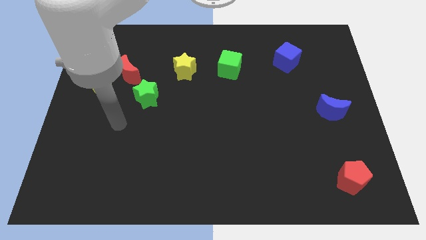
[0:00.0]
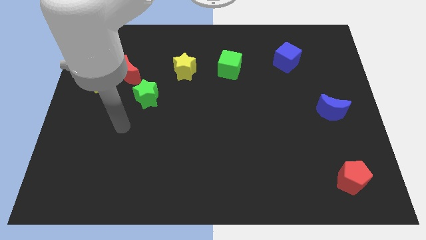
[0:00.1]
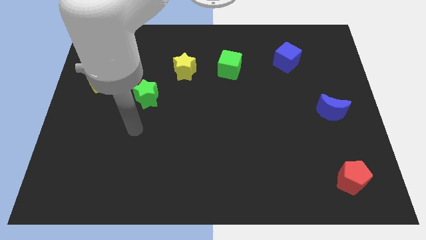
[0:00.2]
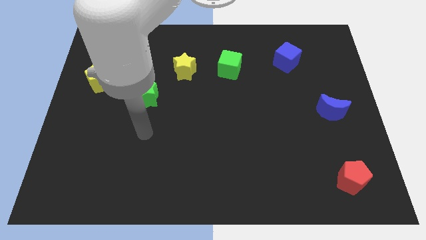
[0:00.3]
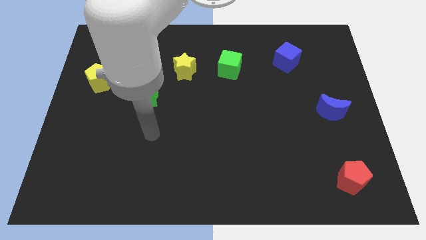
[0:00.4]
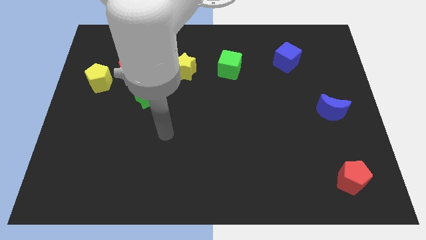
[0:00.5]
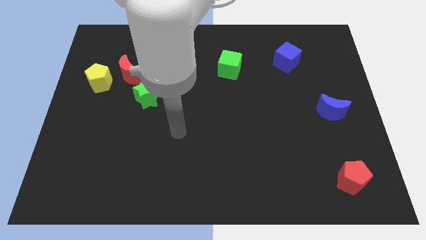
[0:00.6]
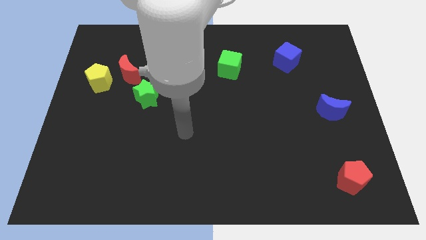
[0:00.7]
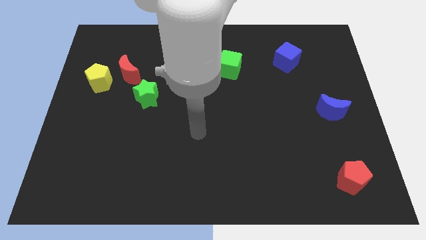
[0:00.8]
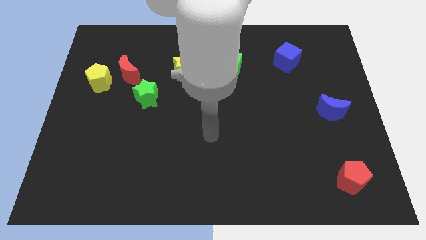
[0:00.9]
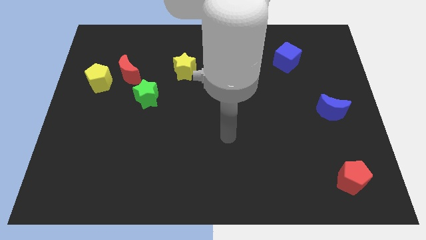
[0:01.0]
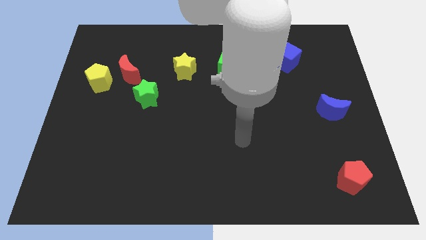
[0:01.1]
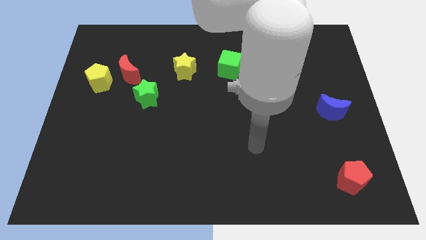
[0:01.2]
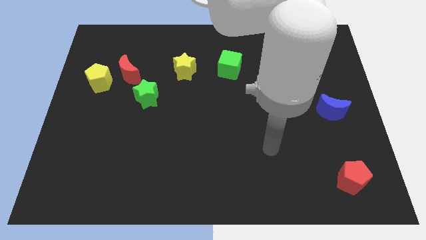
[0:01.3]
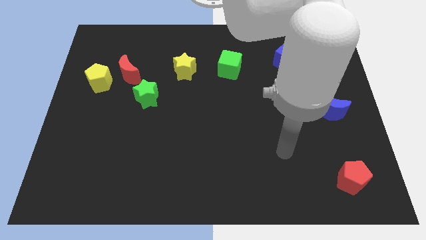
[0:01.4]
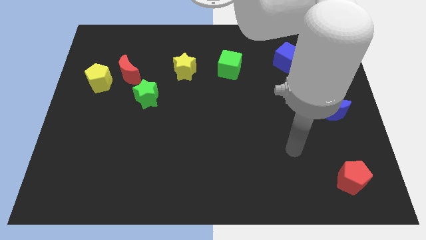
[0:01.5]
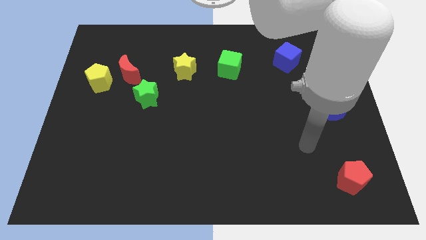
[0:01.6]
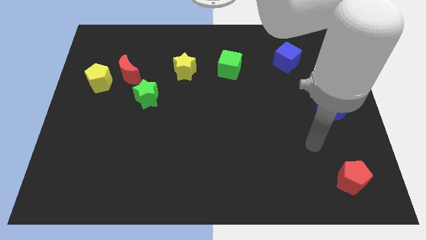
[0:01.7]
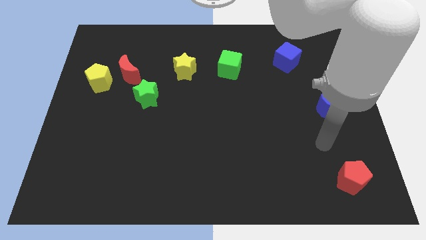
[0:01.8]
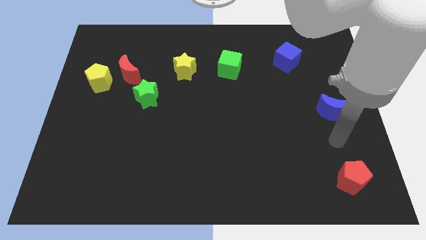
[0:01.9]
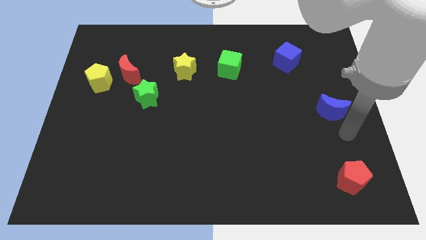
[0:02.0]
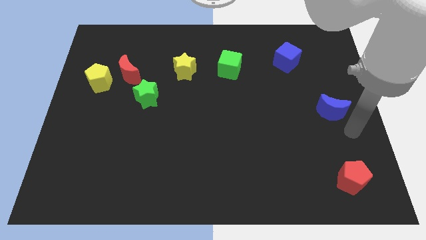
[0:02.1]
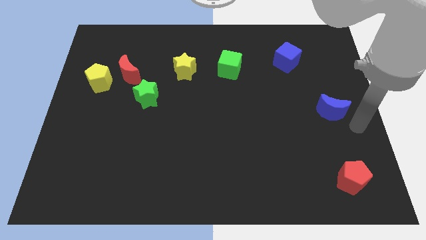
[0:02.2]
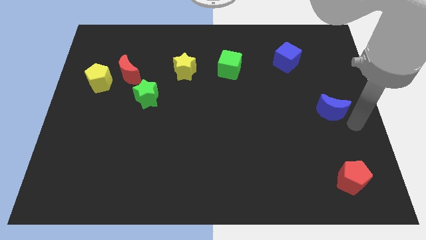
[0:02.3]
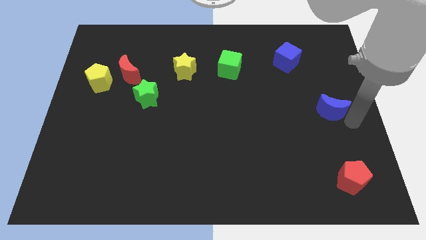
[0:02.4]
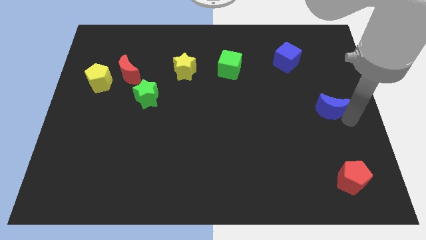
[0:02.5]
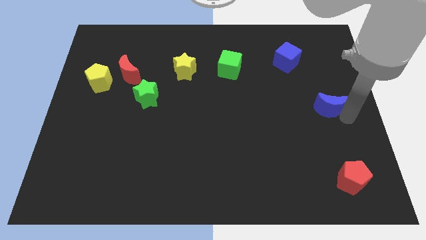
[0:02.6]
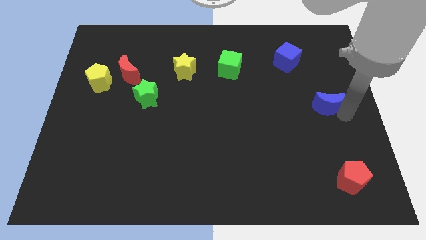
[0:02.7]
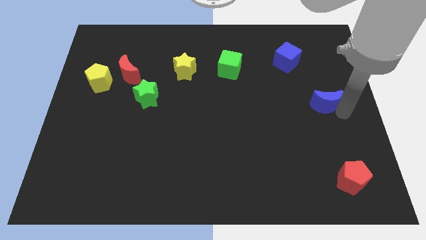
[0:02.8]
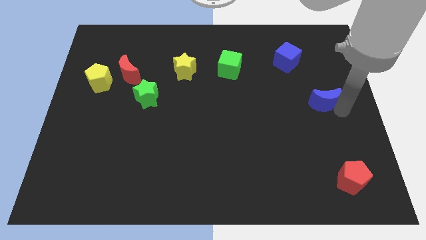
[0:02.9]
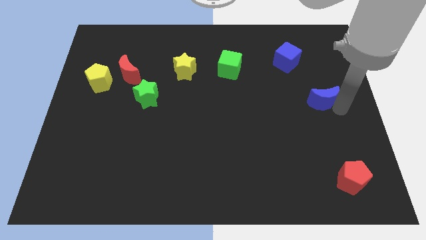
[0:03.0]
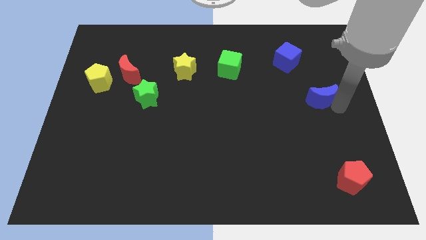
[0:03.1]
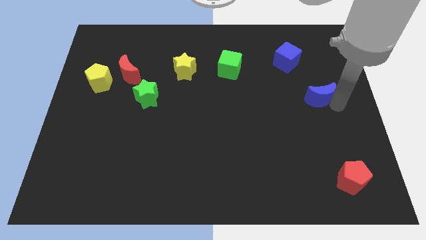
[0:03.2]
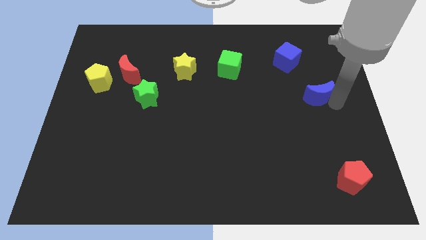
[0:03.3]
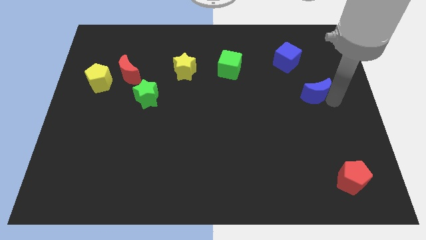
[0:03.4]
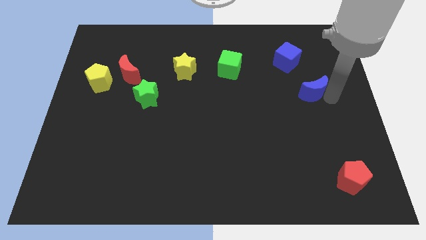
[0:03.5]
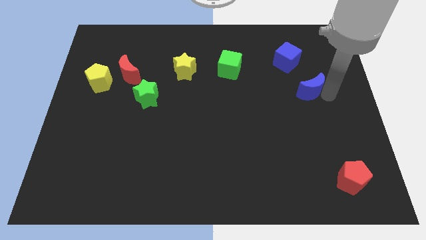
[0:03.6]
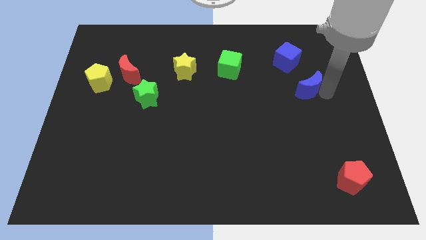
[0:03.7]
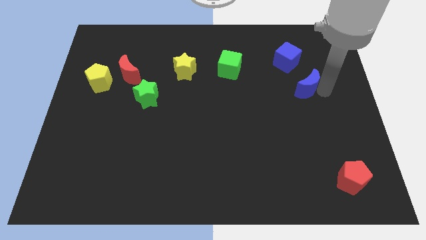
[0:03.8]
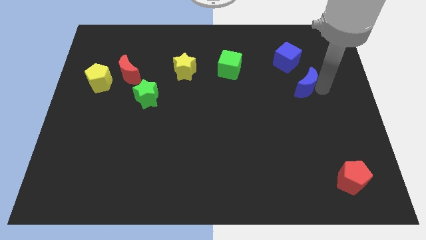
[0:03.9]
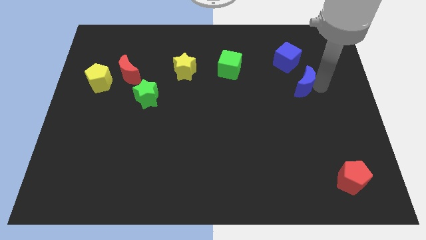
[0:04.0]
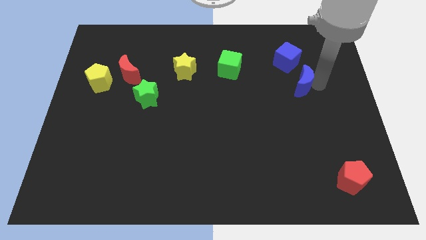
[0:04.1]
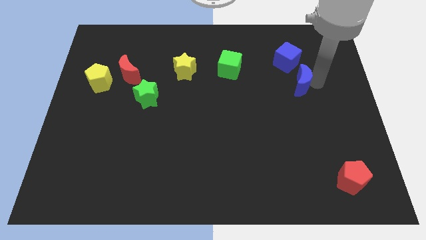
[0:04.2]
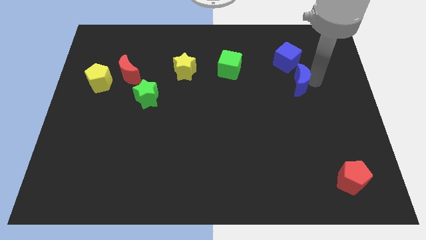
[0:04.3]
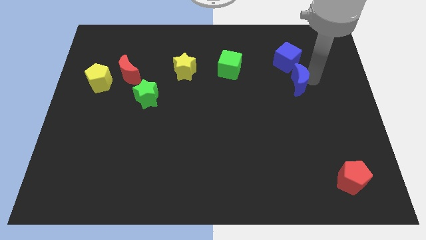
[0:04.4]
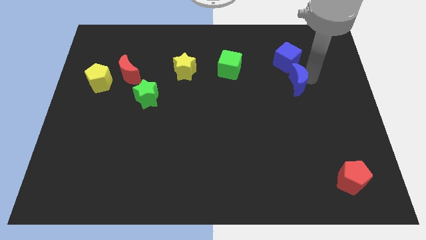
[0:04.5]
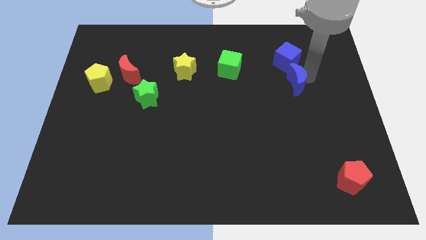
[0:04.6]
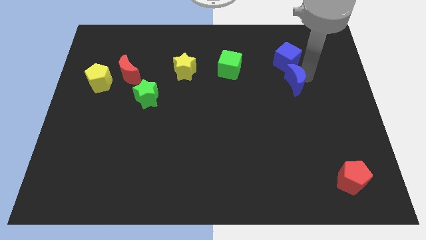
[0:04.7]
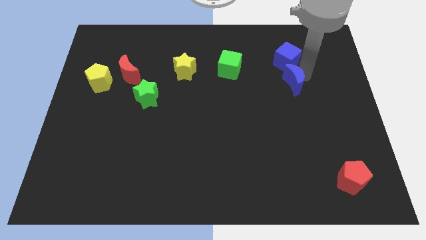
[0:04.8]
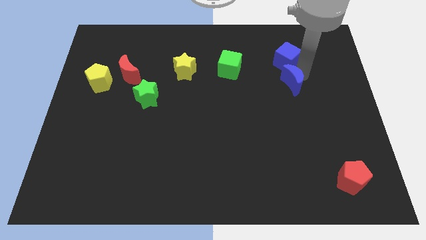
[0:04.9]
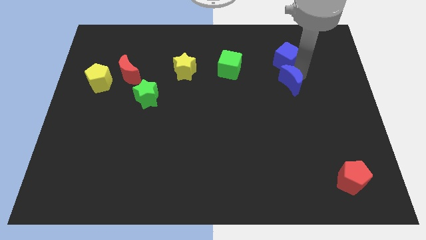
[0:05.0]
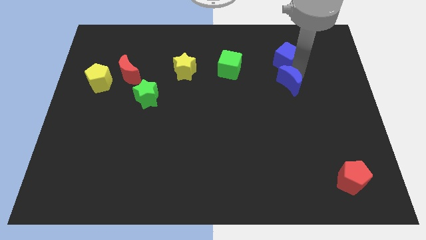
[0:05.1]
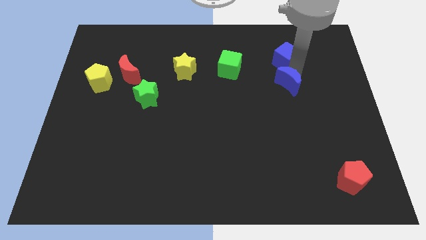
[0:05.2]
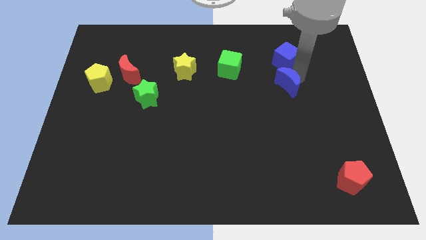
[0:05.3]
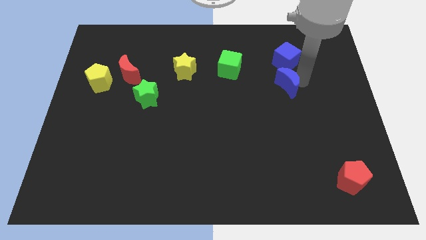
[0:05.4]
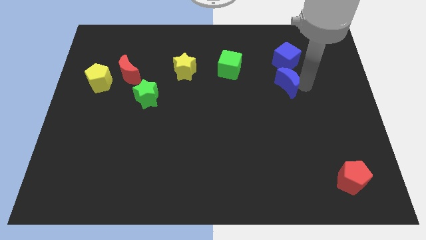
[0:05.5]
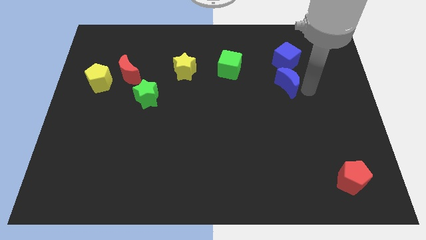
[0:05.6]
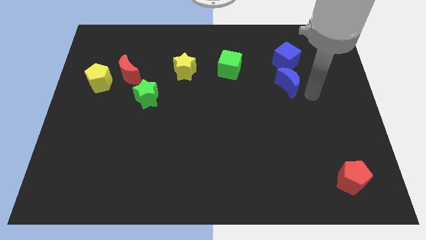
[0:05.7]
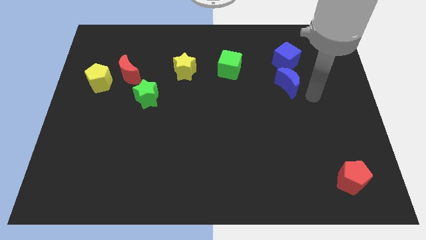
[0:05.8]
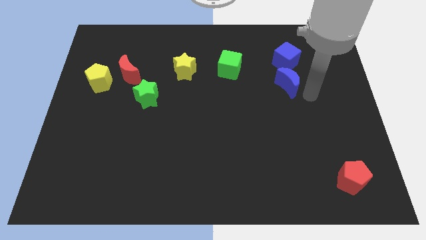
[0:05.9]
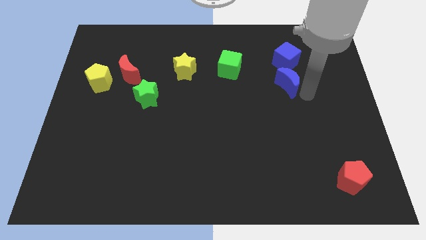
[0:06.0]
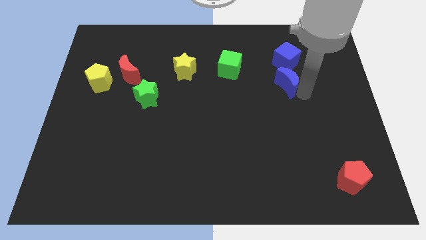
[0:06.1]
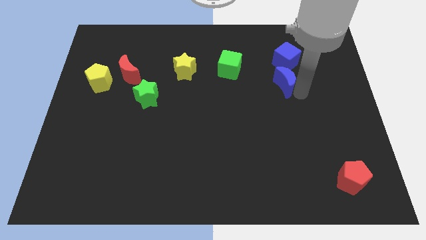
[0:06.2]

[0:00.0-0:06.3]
slide the blue moon to the bottom left of the blue cube
